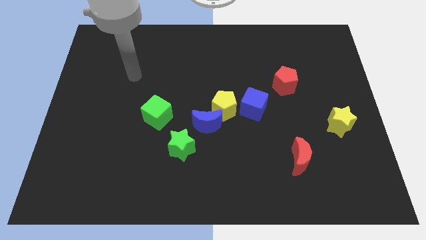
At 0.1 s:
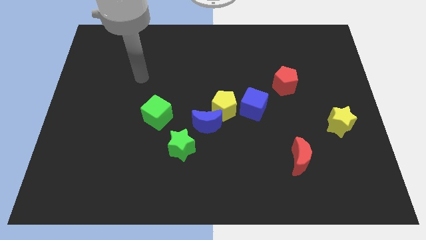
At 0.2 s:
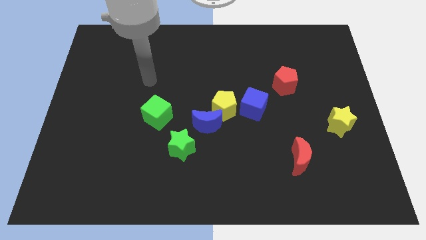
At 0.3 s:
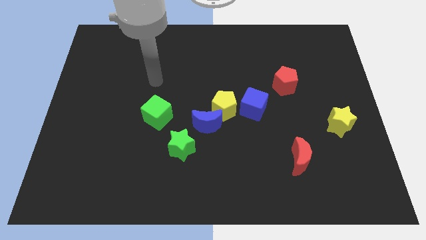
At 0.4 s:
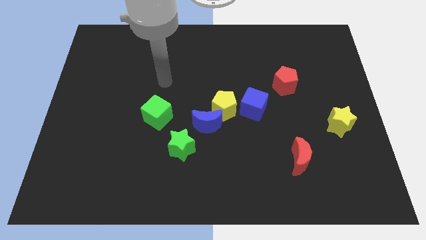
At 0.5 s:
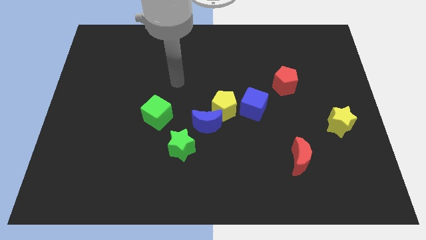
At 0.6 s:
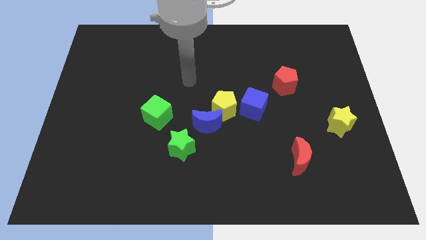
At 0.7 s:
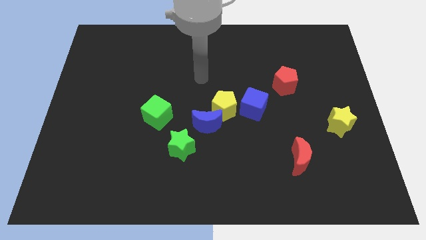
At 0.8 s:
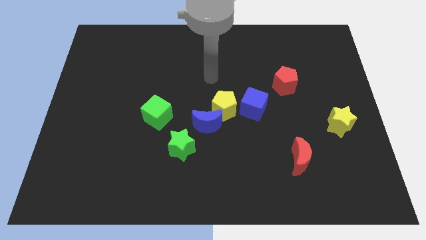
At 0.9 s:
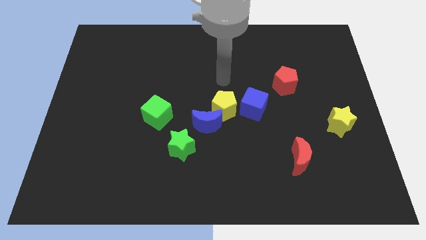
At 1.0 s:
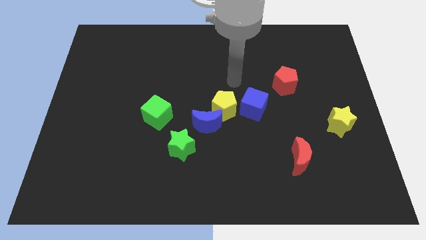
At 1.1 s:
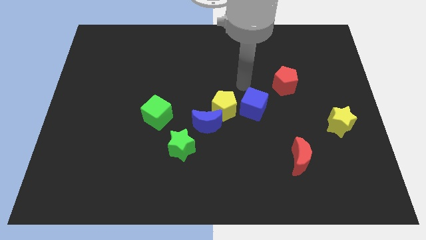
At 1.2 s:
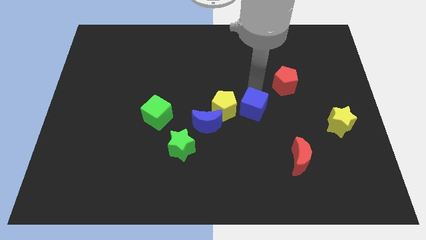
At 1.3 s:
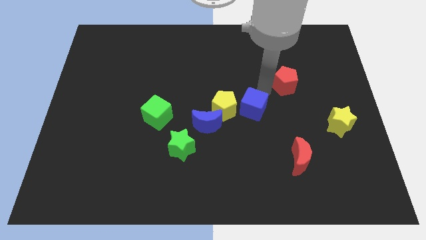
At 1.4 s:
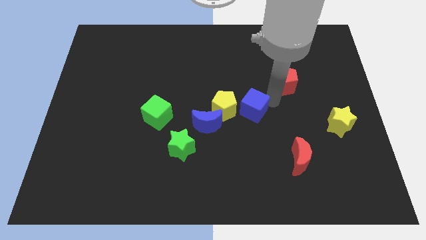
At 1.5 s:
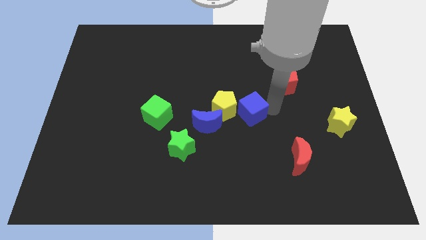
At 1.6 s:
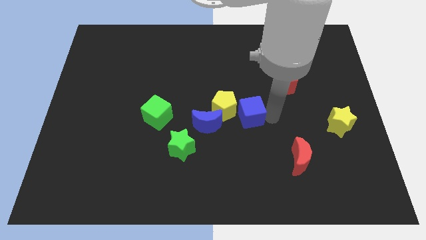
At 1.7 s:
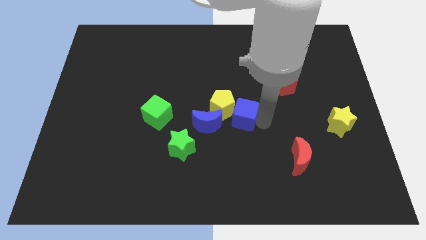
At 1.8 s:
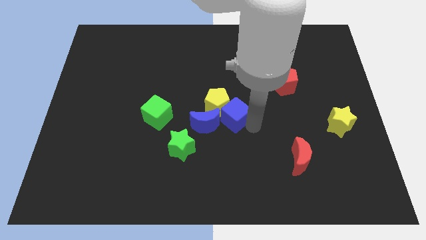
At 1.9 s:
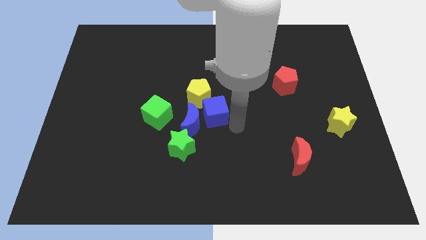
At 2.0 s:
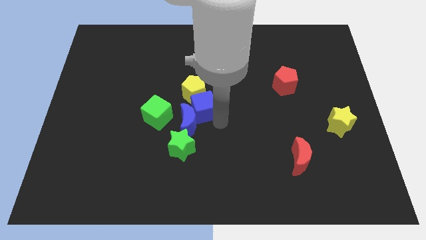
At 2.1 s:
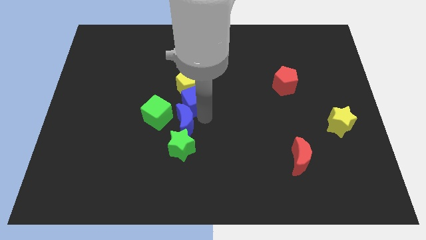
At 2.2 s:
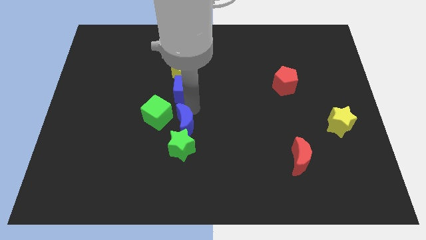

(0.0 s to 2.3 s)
move the yellow pentagon away from the blue moon and blue cube

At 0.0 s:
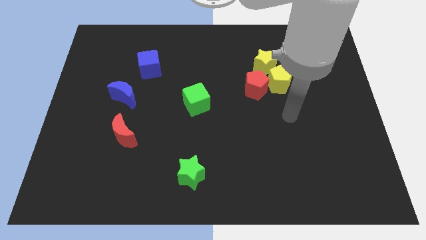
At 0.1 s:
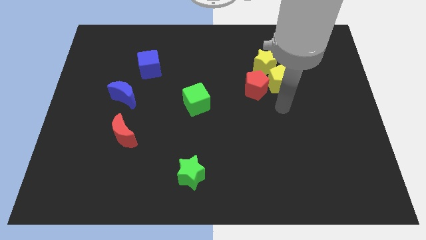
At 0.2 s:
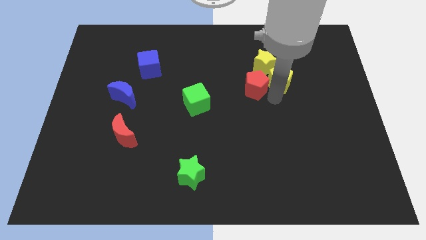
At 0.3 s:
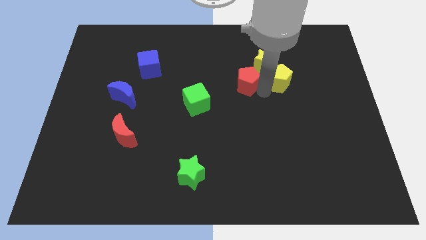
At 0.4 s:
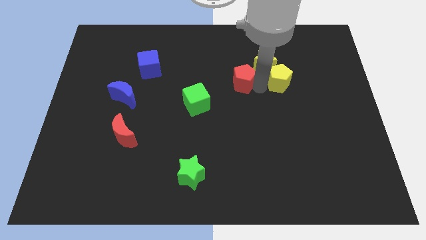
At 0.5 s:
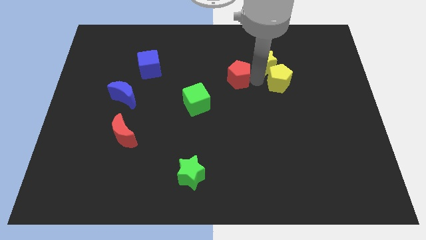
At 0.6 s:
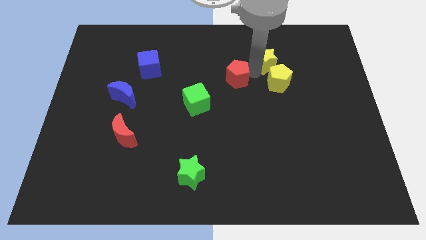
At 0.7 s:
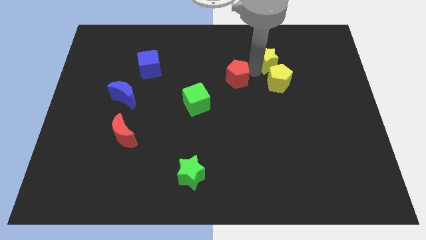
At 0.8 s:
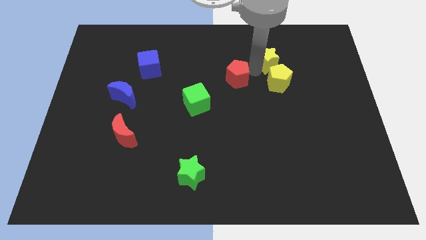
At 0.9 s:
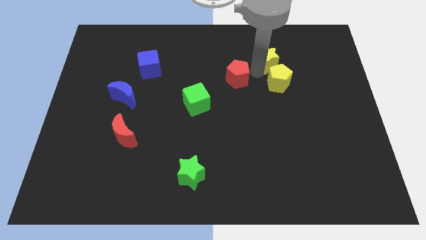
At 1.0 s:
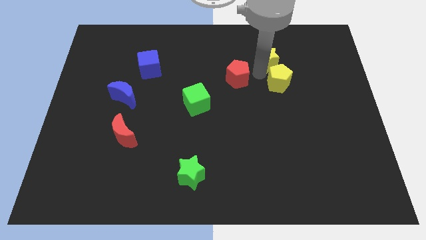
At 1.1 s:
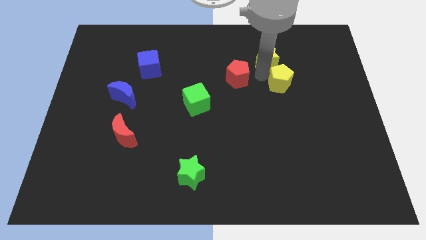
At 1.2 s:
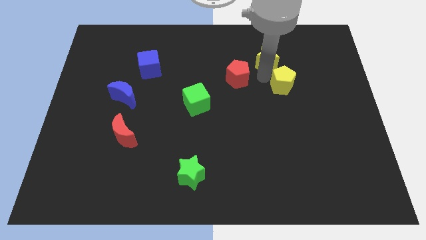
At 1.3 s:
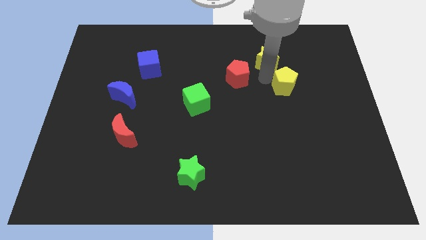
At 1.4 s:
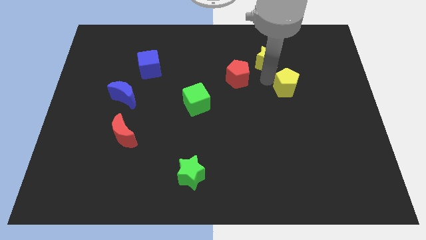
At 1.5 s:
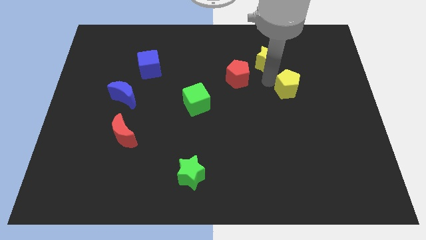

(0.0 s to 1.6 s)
separate the yellow pentagon from the red pentagon and yellow star

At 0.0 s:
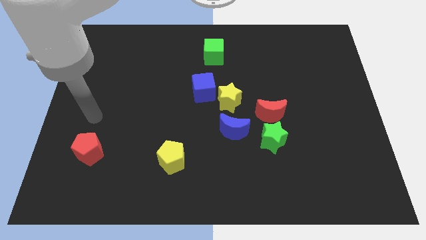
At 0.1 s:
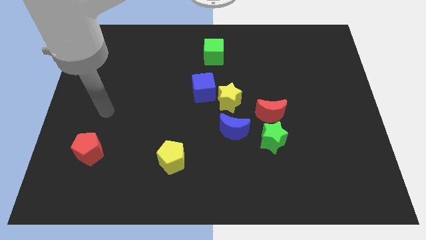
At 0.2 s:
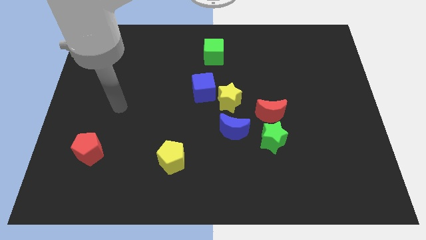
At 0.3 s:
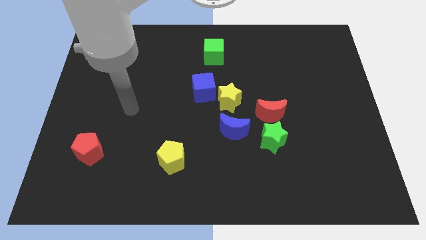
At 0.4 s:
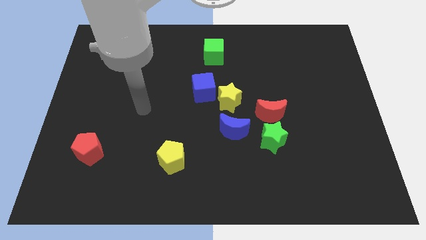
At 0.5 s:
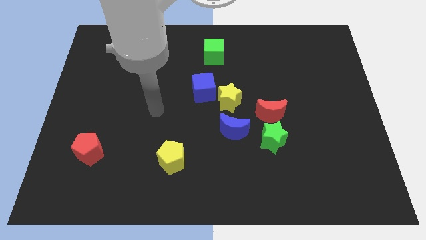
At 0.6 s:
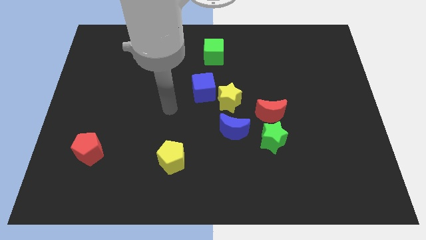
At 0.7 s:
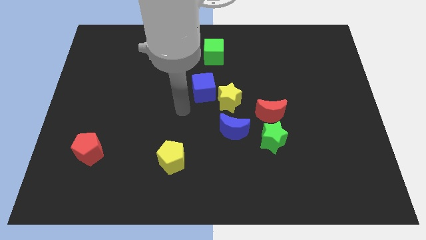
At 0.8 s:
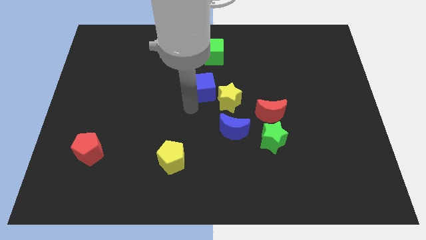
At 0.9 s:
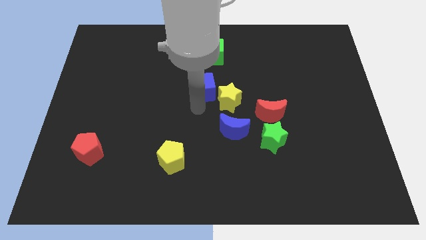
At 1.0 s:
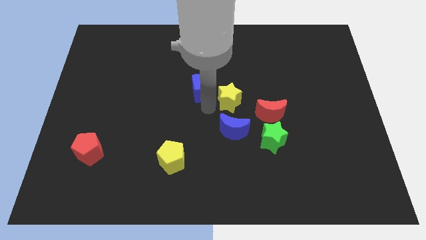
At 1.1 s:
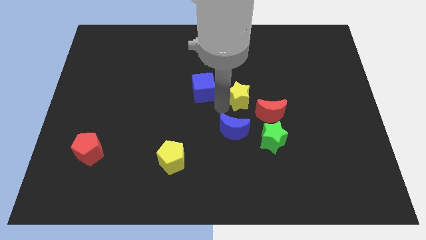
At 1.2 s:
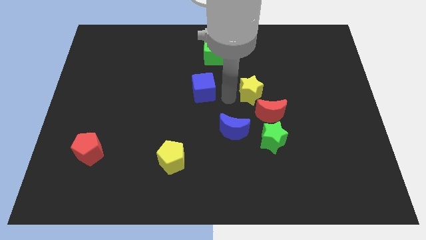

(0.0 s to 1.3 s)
move the blue cube away from the yellow star

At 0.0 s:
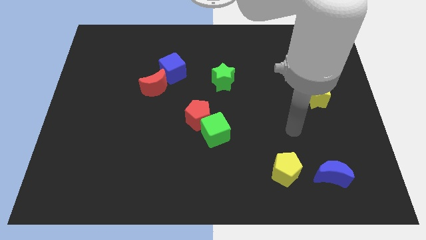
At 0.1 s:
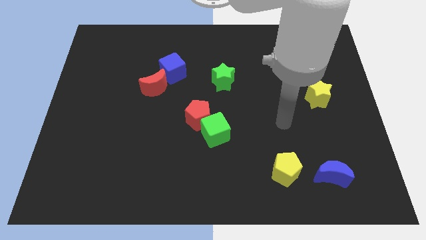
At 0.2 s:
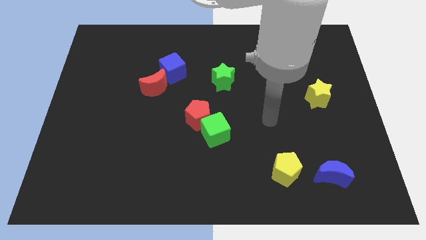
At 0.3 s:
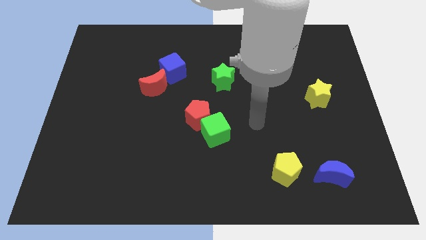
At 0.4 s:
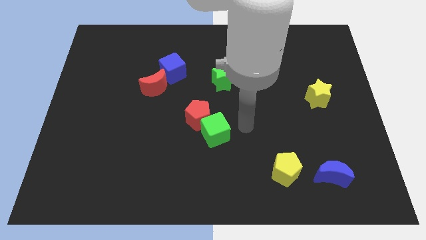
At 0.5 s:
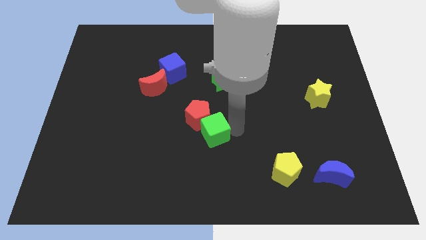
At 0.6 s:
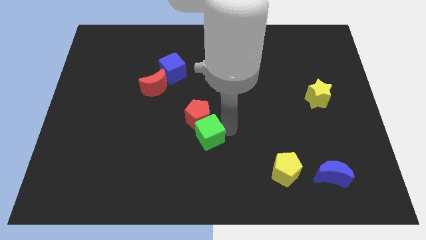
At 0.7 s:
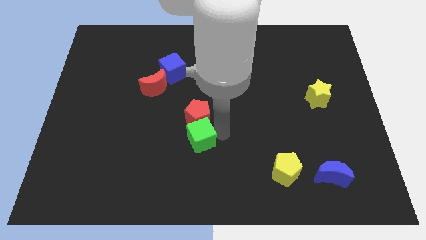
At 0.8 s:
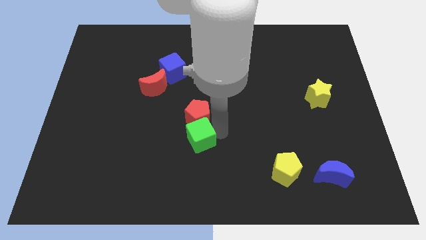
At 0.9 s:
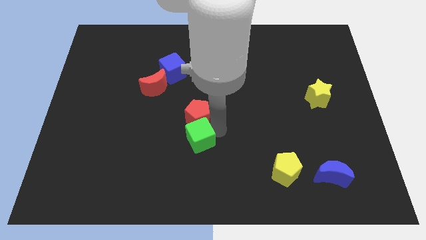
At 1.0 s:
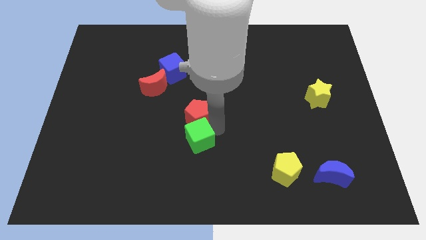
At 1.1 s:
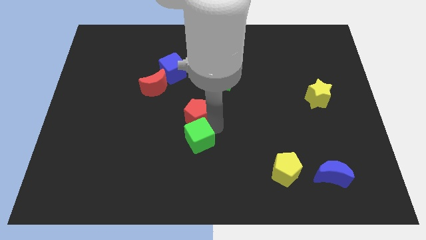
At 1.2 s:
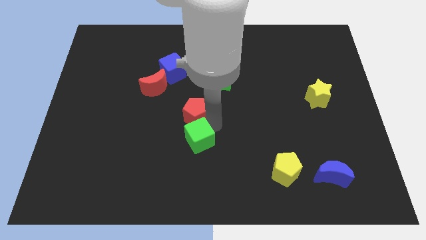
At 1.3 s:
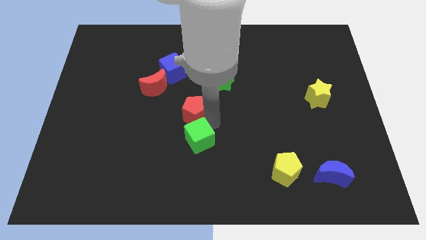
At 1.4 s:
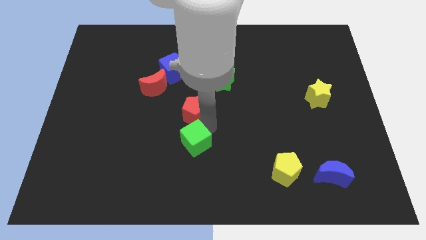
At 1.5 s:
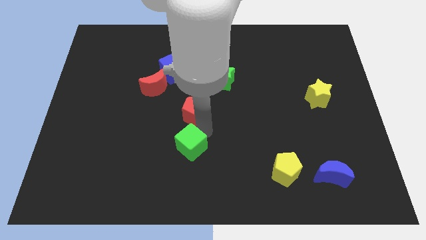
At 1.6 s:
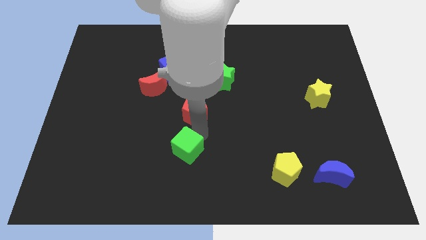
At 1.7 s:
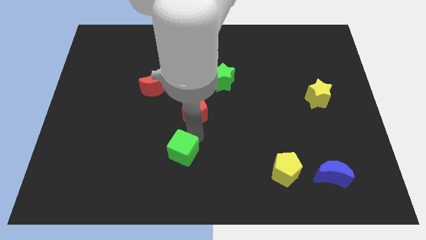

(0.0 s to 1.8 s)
pull the red pentagon apart from the green cube

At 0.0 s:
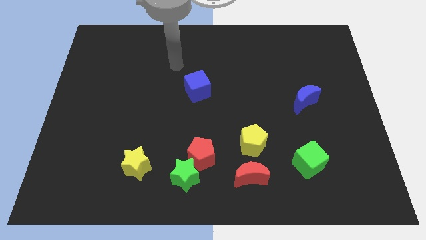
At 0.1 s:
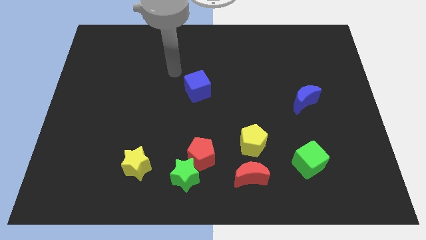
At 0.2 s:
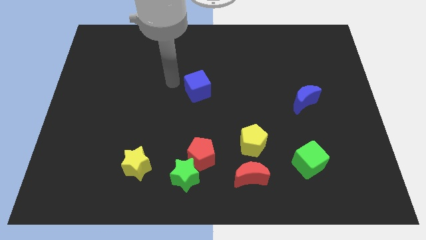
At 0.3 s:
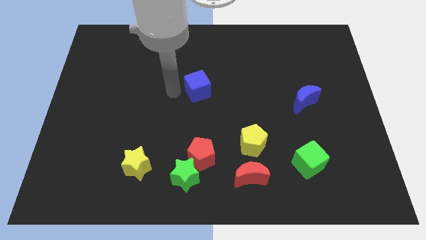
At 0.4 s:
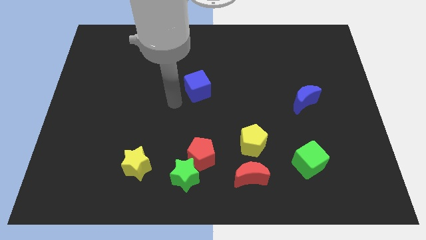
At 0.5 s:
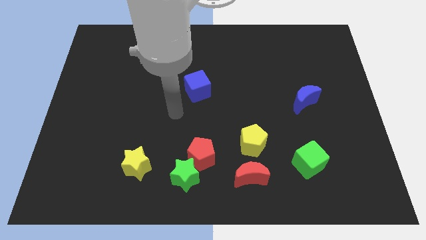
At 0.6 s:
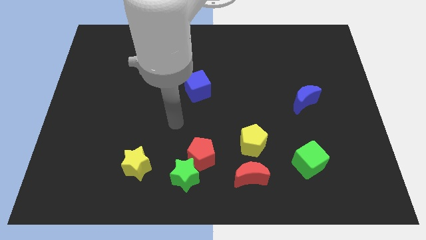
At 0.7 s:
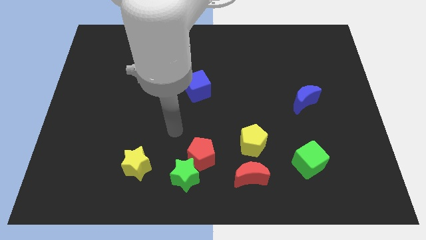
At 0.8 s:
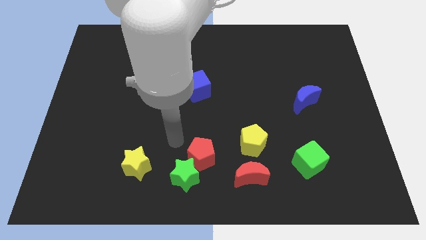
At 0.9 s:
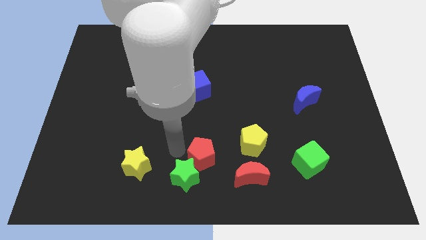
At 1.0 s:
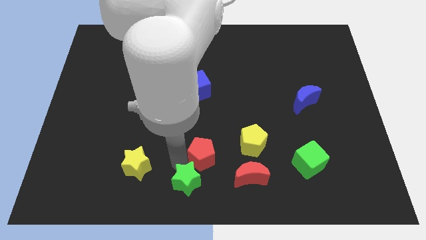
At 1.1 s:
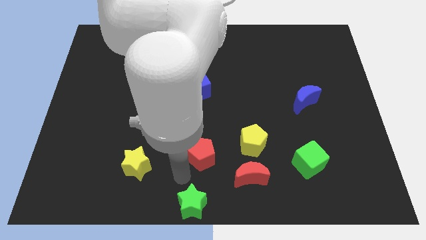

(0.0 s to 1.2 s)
move the red pentagon away from the green star

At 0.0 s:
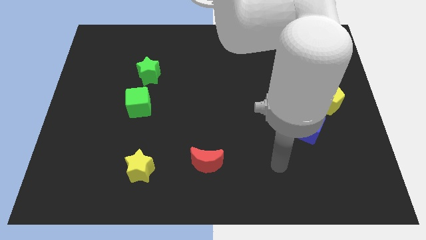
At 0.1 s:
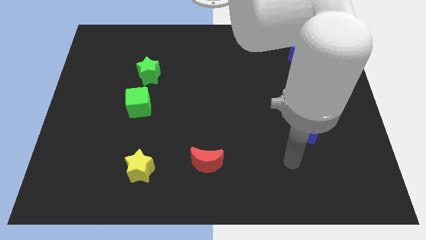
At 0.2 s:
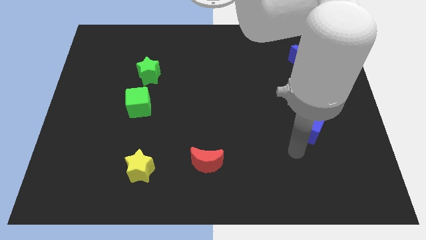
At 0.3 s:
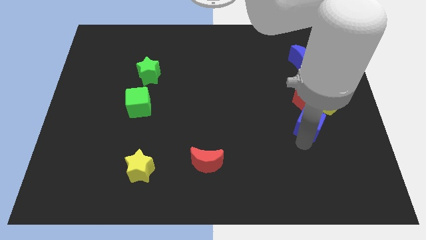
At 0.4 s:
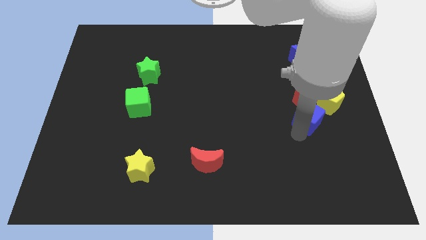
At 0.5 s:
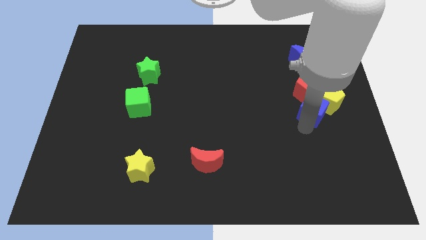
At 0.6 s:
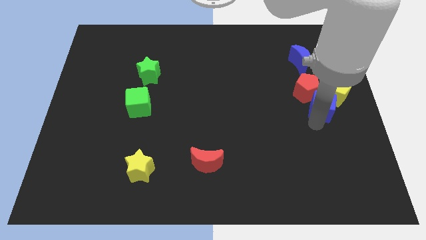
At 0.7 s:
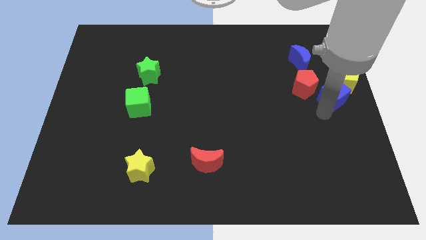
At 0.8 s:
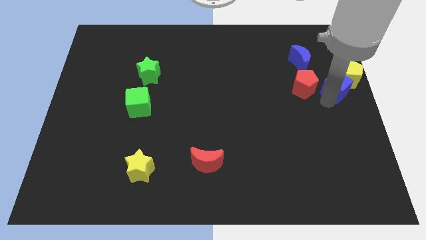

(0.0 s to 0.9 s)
separate the red pentagon from the yellow pentagon and blue cube
